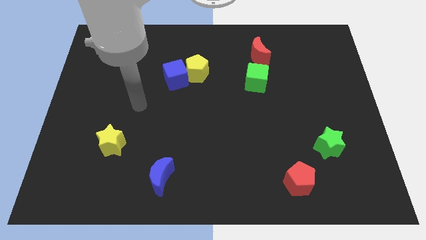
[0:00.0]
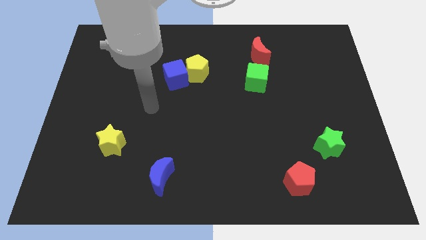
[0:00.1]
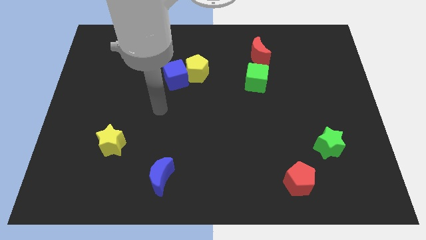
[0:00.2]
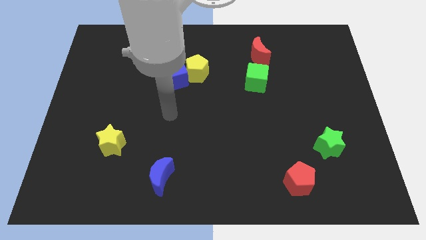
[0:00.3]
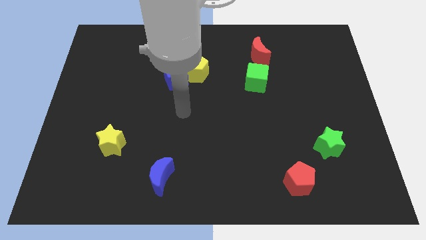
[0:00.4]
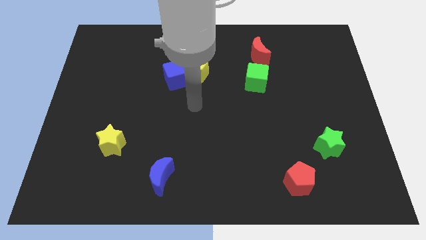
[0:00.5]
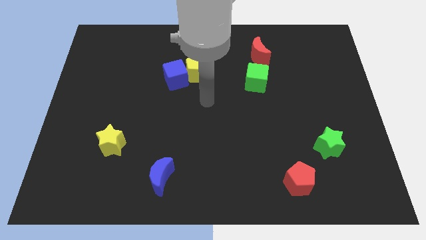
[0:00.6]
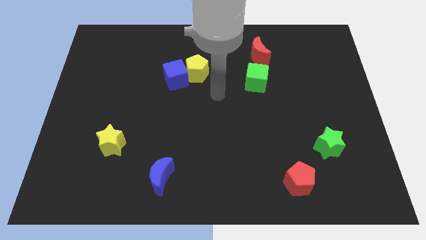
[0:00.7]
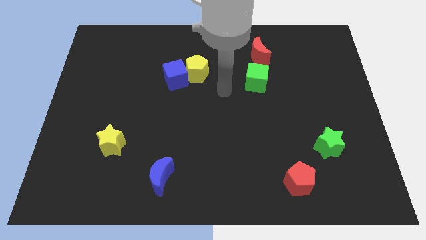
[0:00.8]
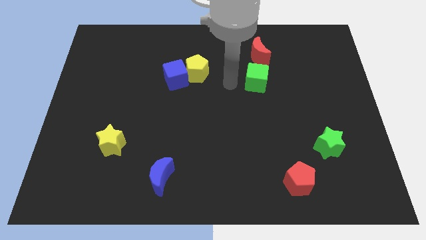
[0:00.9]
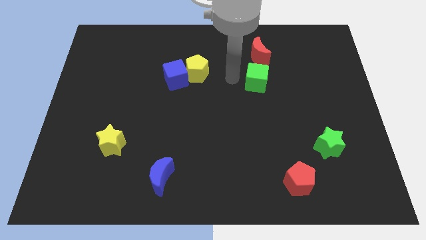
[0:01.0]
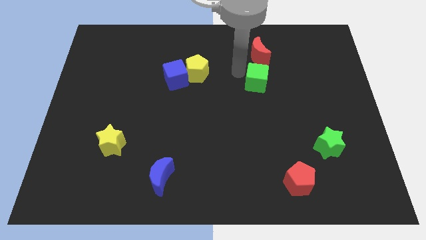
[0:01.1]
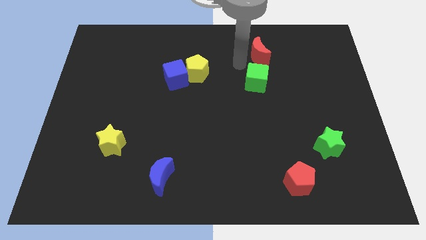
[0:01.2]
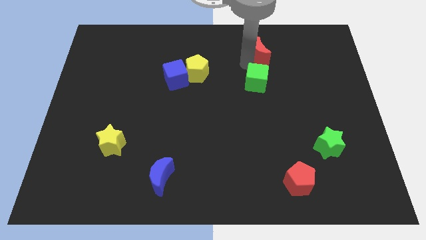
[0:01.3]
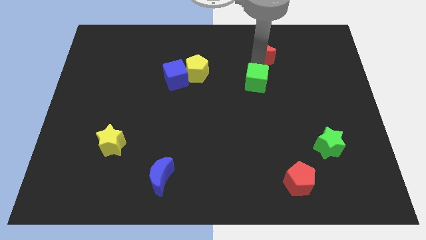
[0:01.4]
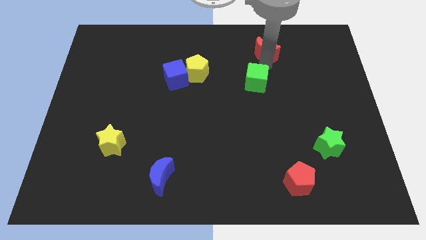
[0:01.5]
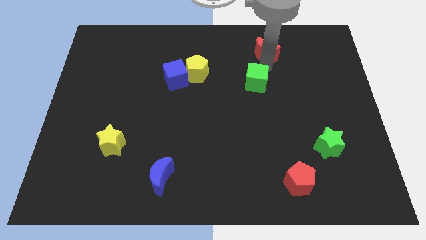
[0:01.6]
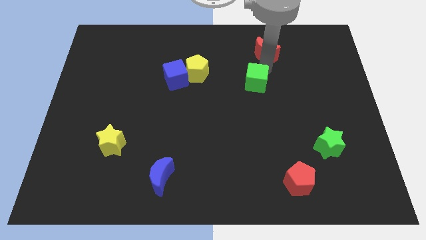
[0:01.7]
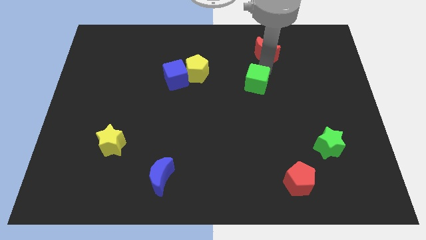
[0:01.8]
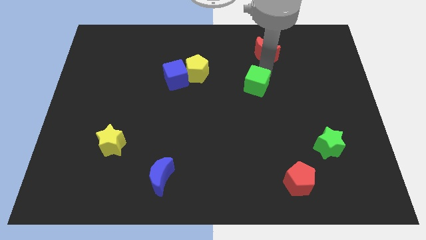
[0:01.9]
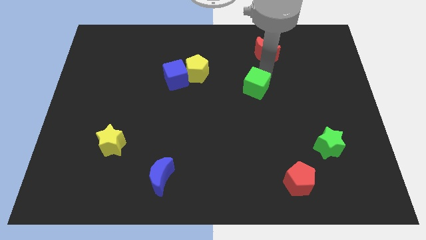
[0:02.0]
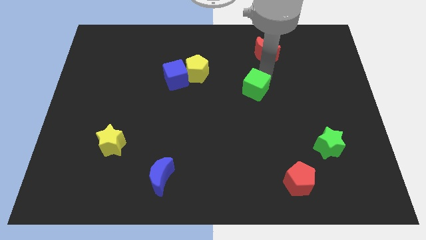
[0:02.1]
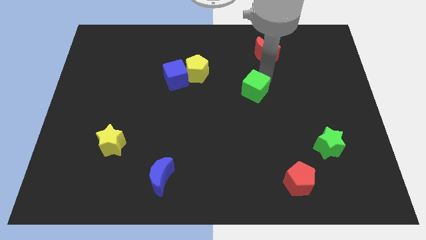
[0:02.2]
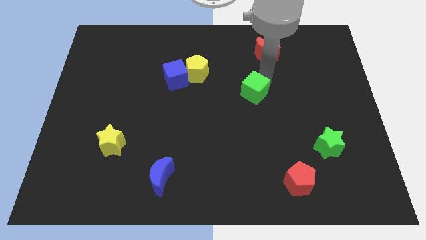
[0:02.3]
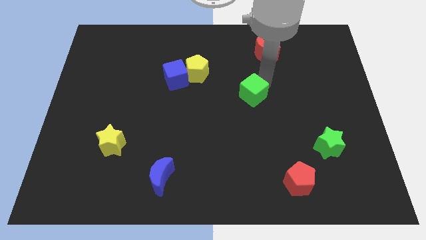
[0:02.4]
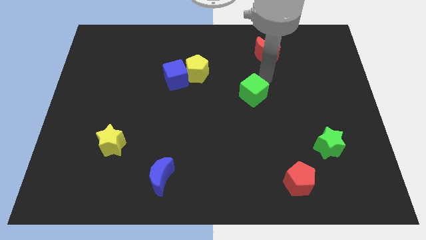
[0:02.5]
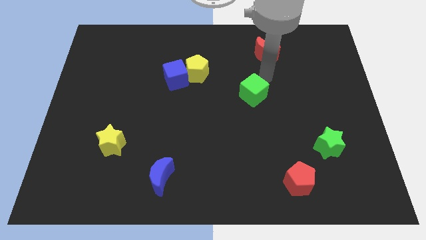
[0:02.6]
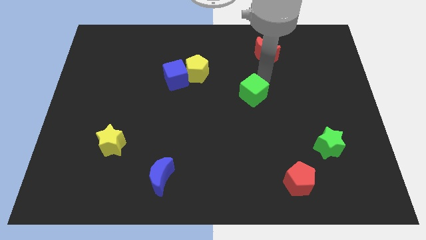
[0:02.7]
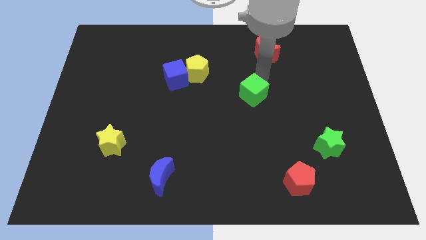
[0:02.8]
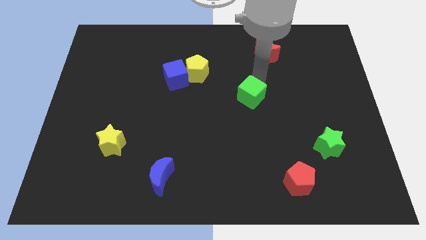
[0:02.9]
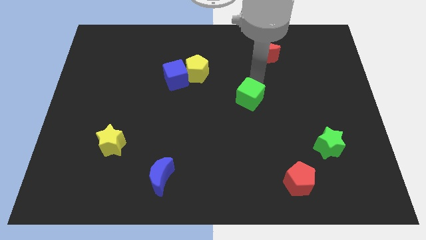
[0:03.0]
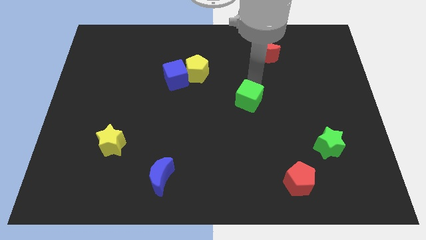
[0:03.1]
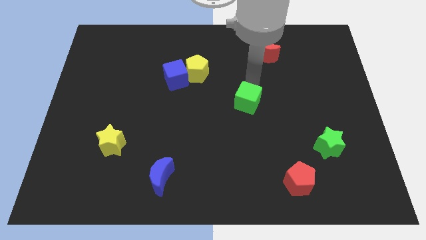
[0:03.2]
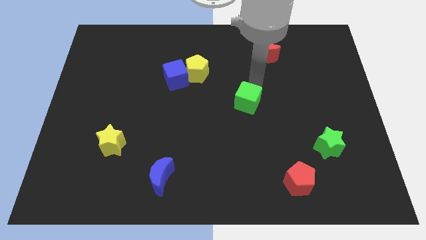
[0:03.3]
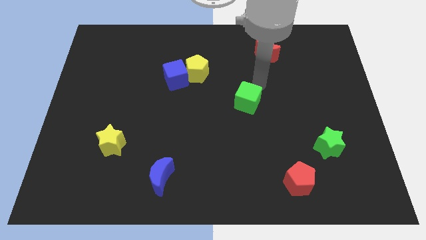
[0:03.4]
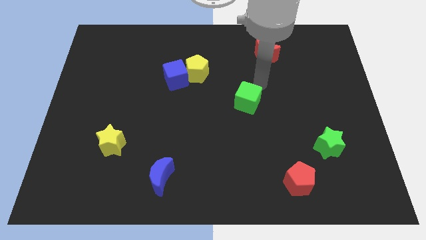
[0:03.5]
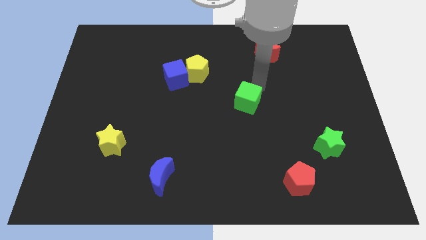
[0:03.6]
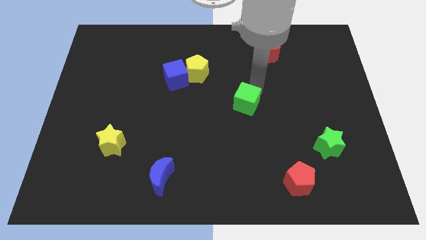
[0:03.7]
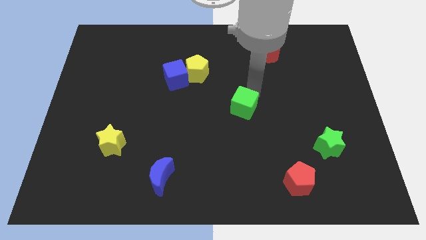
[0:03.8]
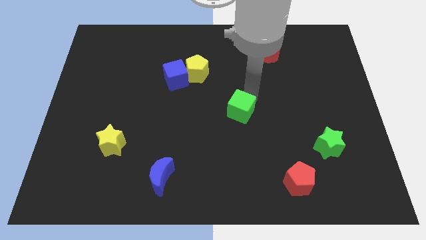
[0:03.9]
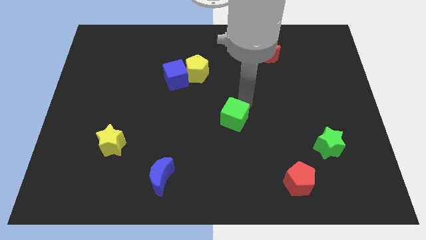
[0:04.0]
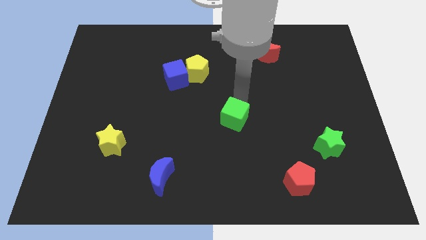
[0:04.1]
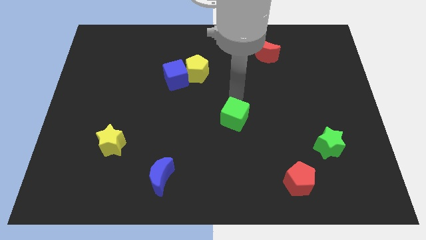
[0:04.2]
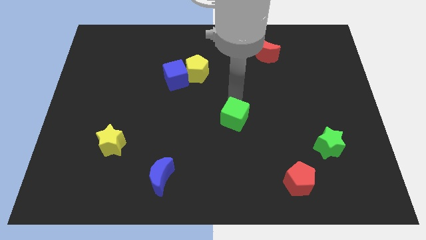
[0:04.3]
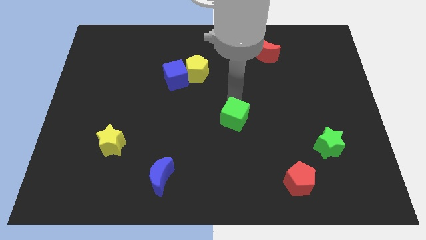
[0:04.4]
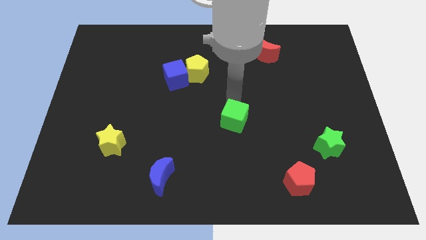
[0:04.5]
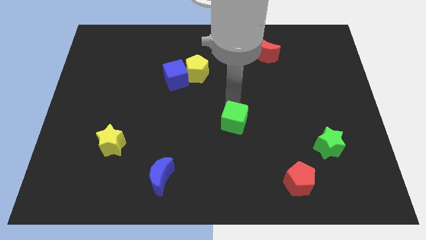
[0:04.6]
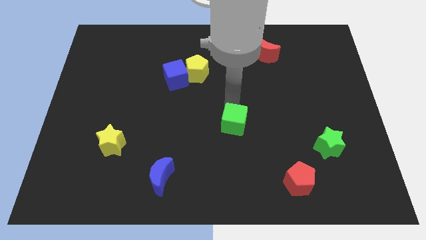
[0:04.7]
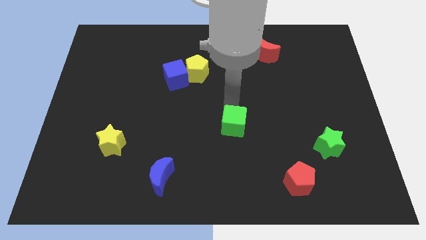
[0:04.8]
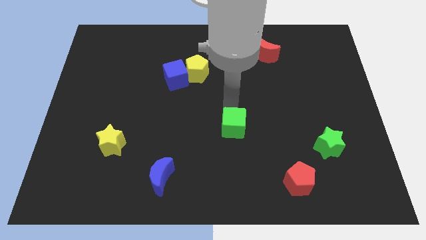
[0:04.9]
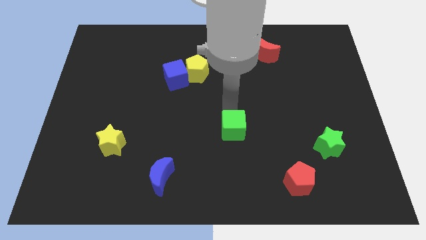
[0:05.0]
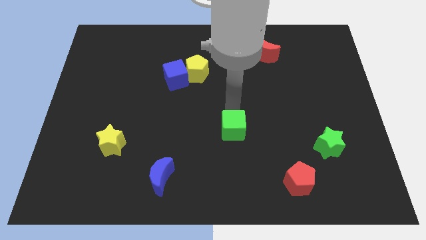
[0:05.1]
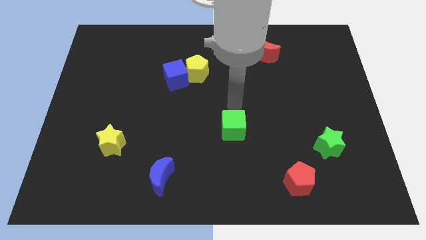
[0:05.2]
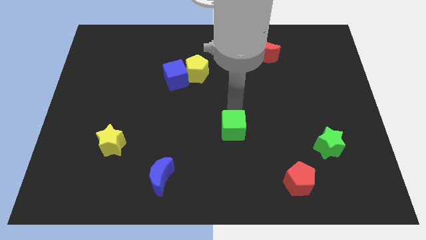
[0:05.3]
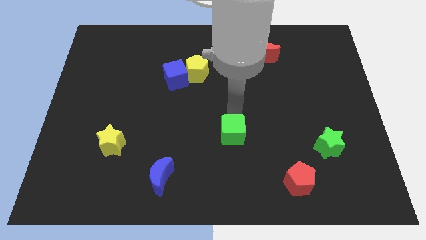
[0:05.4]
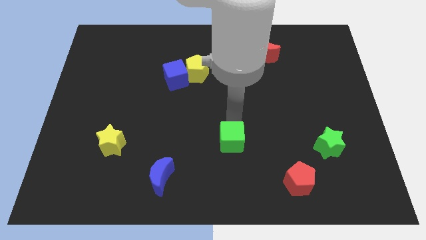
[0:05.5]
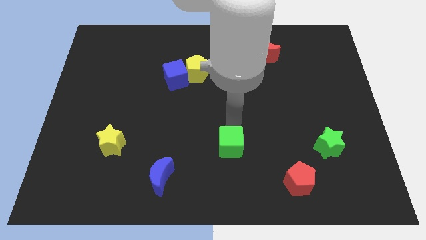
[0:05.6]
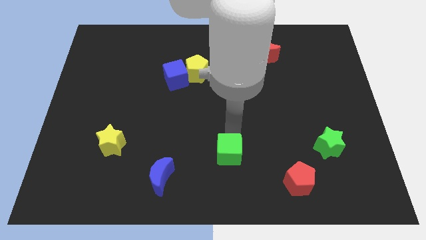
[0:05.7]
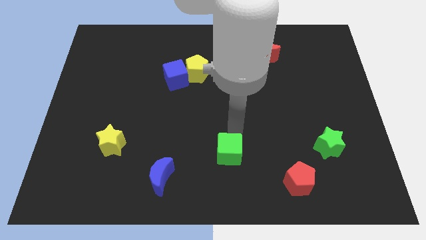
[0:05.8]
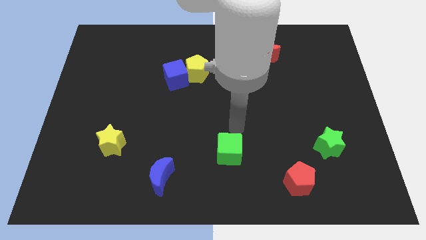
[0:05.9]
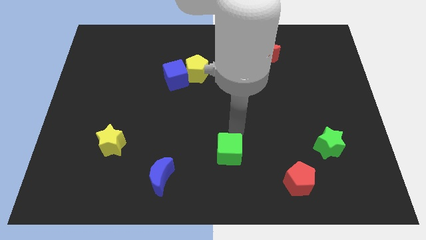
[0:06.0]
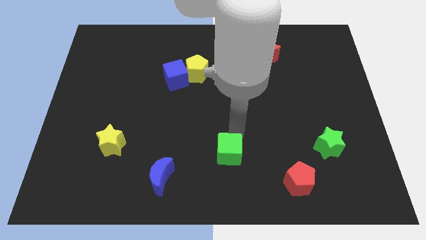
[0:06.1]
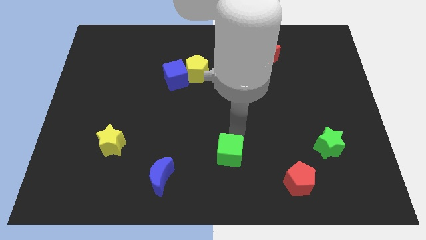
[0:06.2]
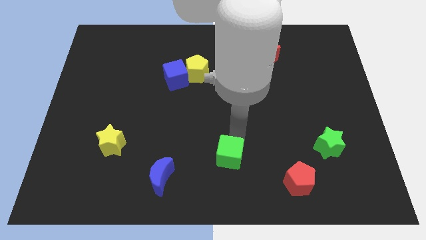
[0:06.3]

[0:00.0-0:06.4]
slide the green cube to the bottom
